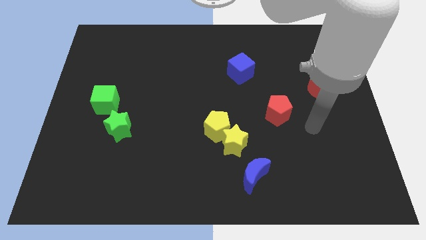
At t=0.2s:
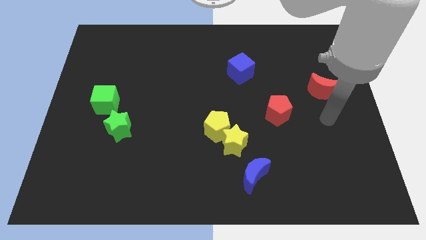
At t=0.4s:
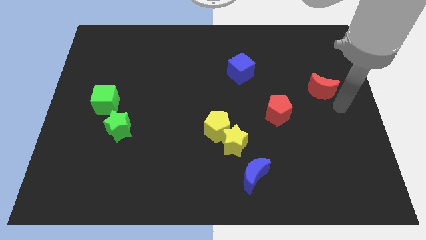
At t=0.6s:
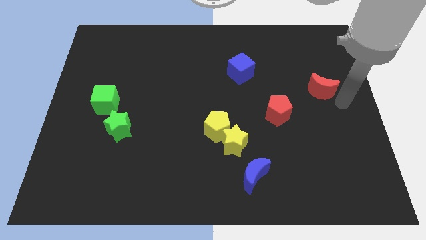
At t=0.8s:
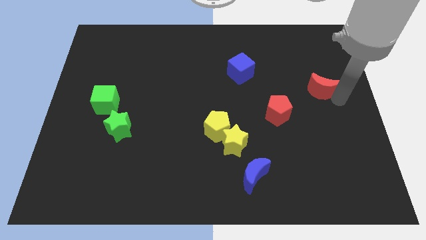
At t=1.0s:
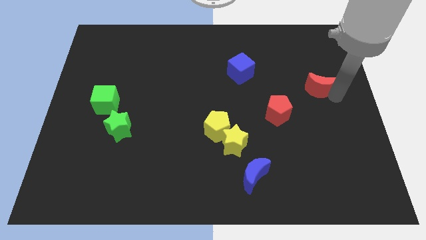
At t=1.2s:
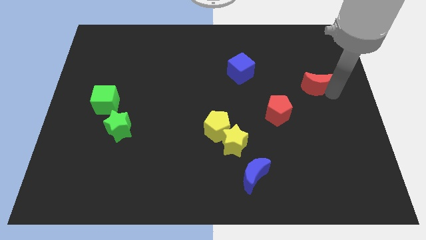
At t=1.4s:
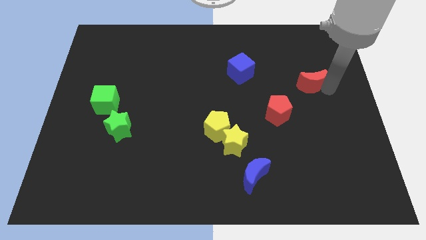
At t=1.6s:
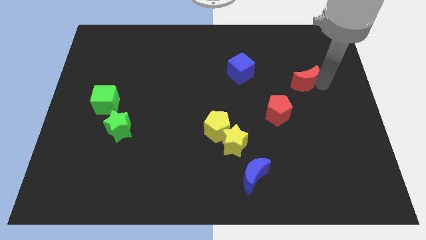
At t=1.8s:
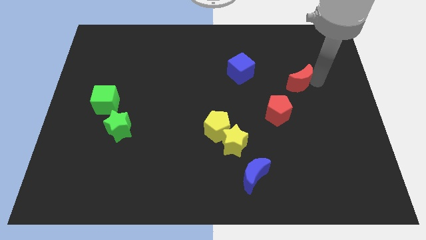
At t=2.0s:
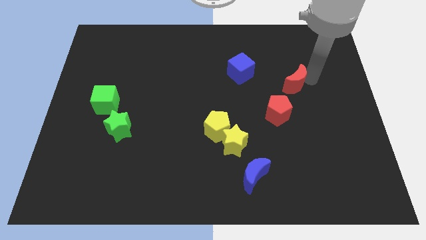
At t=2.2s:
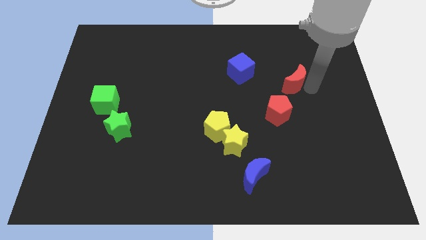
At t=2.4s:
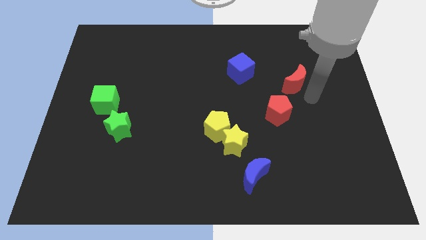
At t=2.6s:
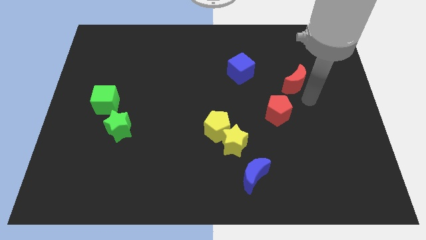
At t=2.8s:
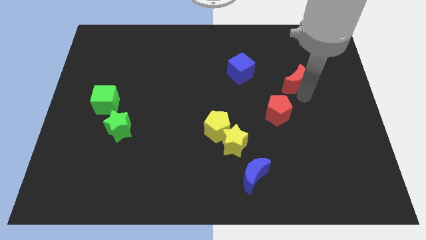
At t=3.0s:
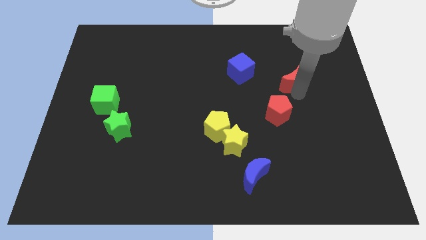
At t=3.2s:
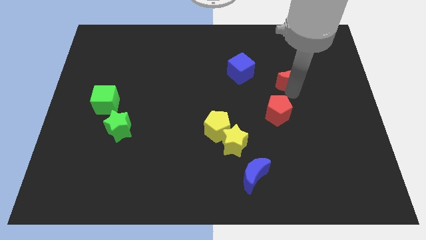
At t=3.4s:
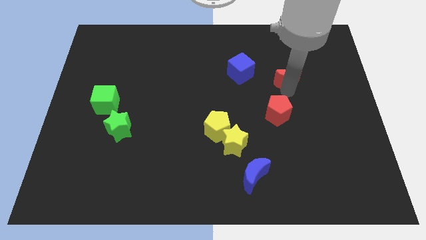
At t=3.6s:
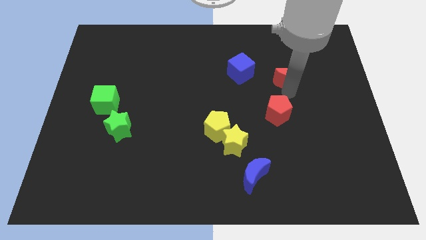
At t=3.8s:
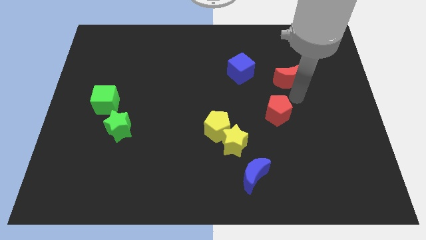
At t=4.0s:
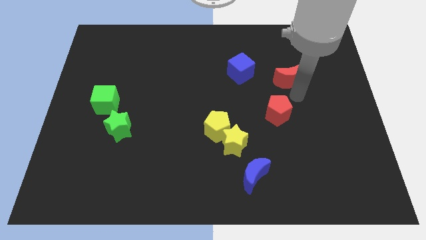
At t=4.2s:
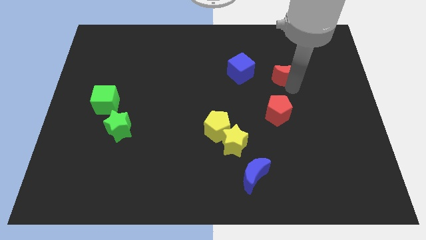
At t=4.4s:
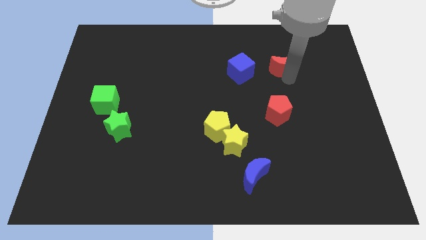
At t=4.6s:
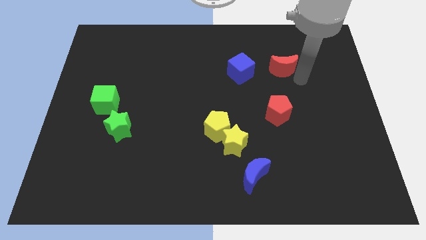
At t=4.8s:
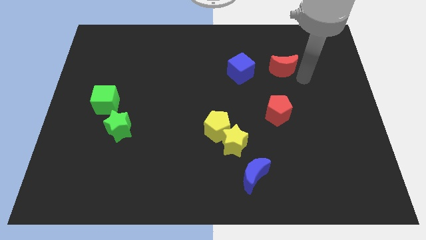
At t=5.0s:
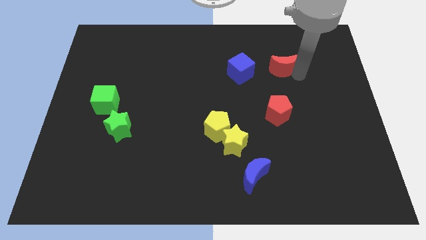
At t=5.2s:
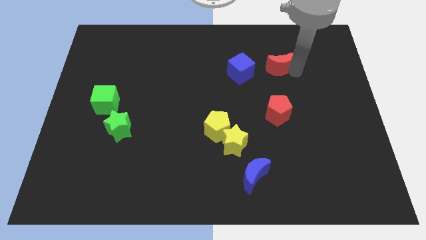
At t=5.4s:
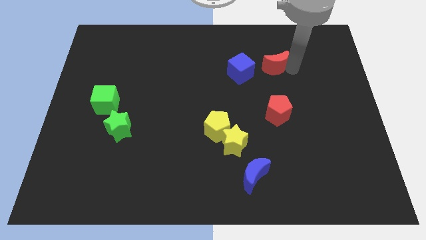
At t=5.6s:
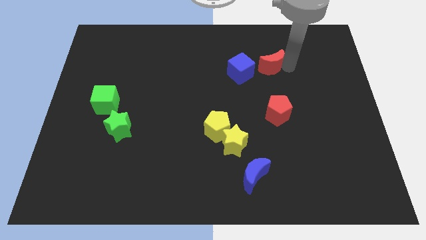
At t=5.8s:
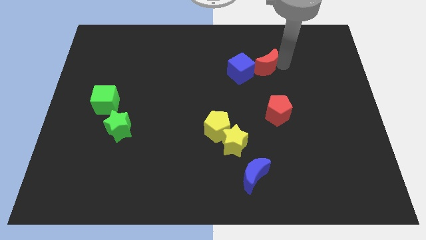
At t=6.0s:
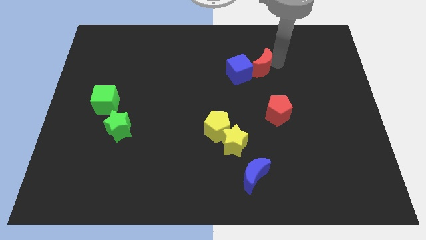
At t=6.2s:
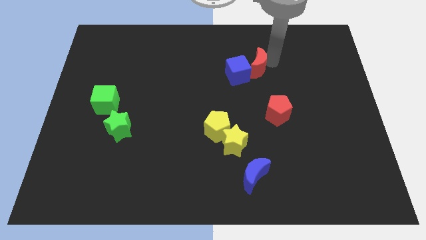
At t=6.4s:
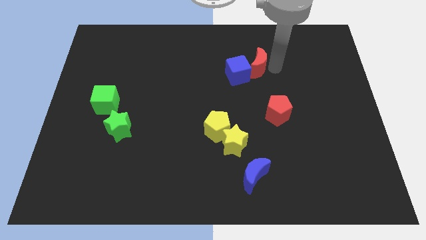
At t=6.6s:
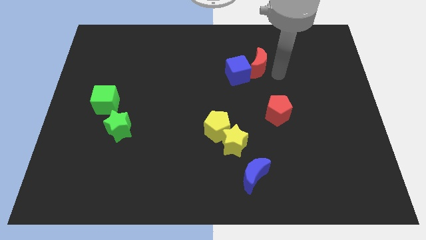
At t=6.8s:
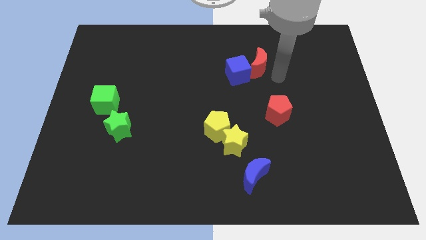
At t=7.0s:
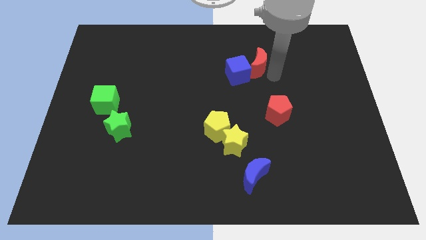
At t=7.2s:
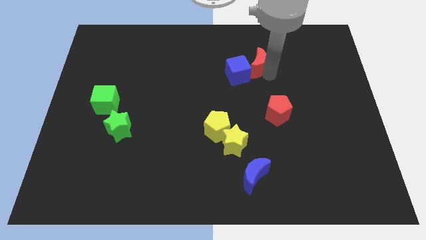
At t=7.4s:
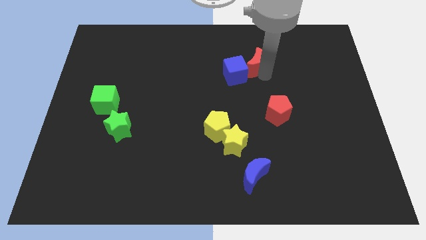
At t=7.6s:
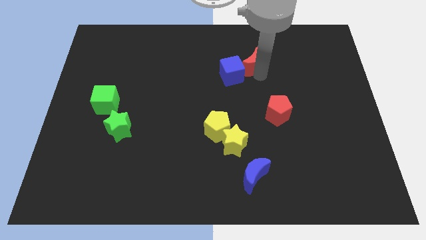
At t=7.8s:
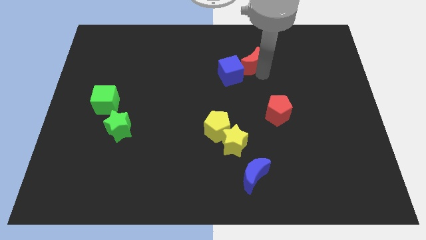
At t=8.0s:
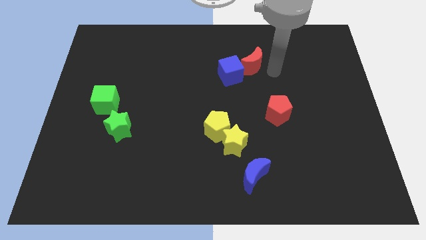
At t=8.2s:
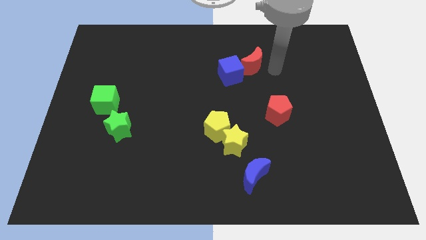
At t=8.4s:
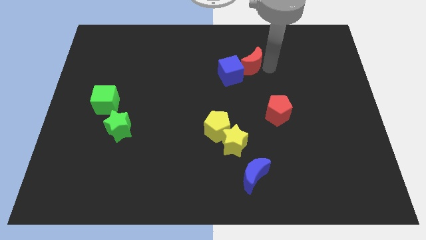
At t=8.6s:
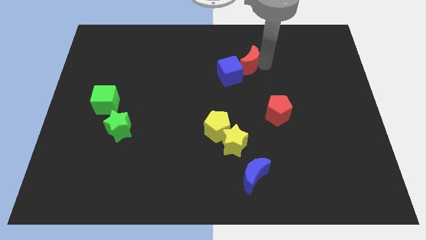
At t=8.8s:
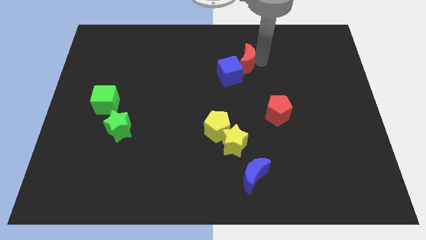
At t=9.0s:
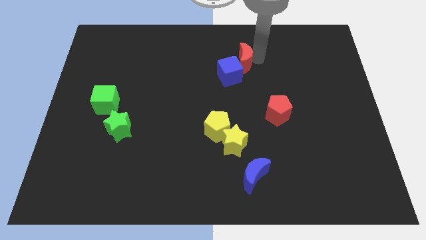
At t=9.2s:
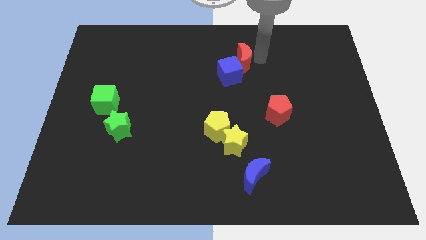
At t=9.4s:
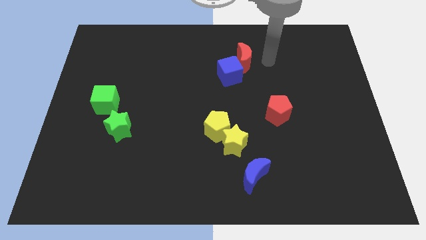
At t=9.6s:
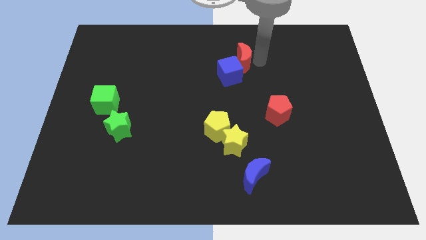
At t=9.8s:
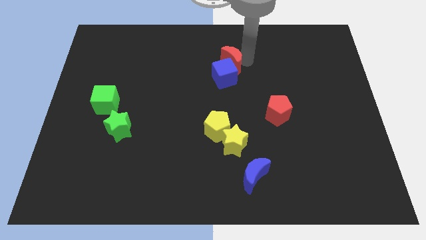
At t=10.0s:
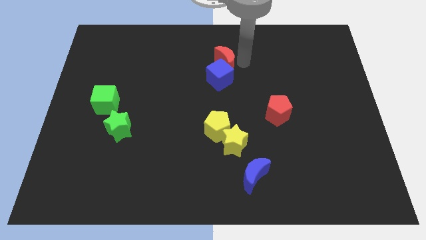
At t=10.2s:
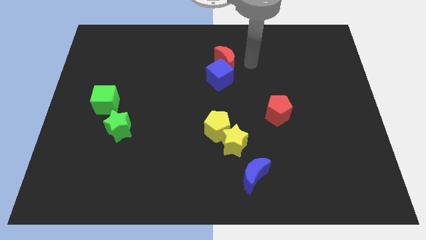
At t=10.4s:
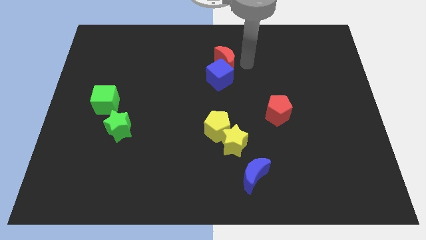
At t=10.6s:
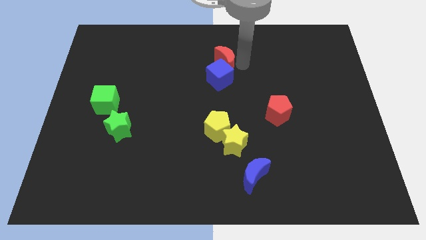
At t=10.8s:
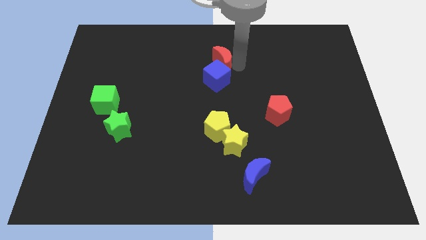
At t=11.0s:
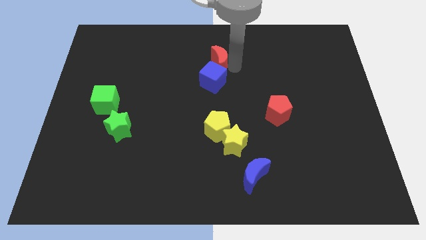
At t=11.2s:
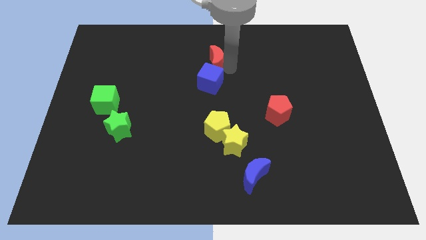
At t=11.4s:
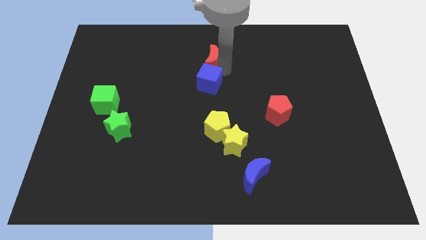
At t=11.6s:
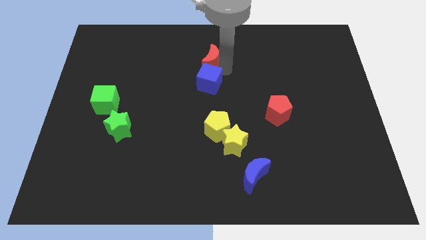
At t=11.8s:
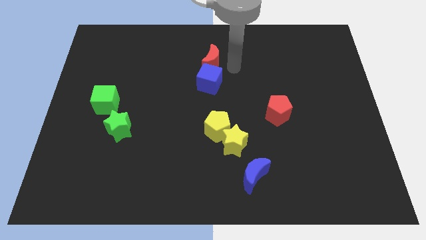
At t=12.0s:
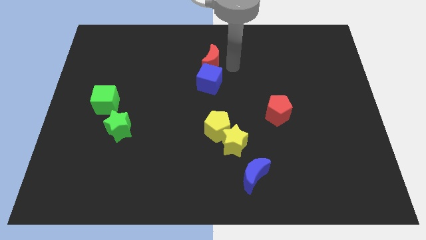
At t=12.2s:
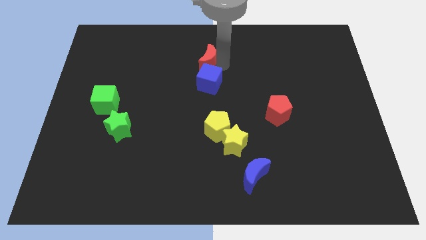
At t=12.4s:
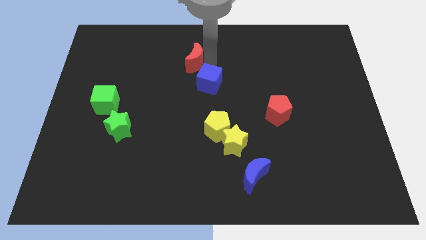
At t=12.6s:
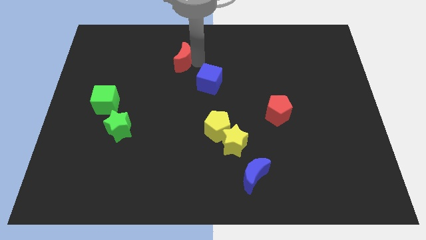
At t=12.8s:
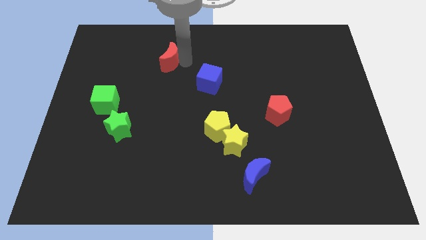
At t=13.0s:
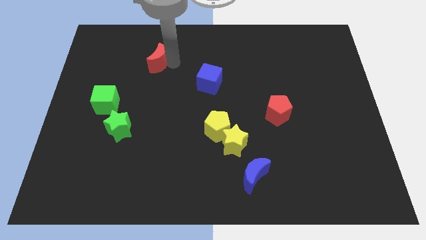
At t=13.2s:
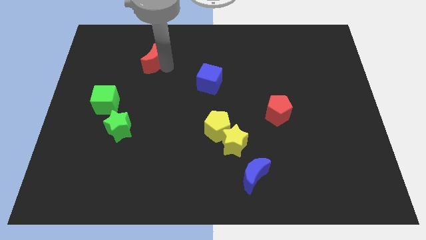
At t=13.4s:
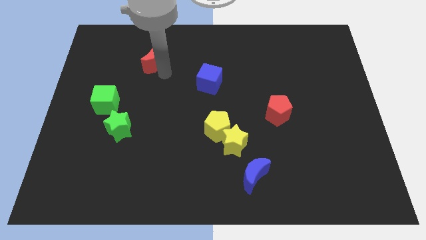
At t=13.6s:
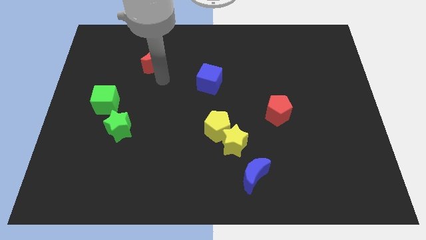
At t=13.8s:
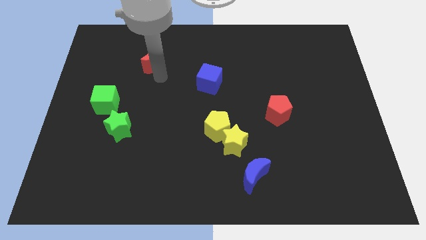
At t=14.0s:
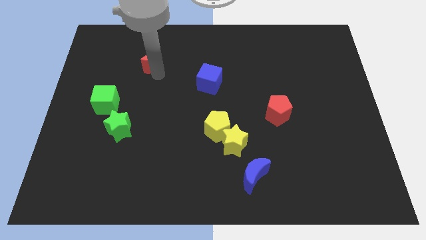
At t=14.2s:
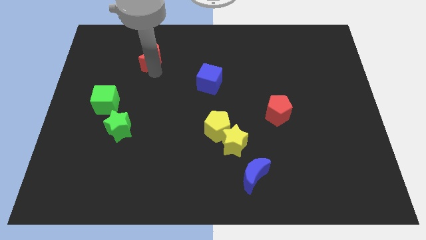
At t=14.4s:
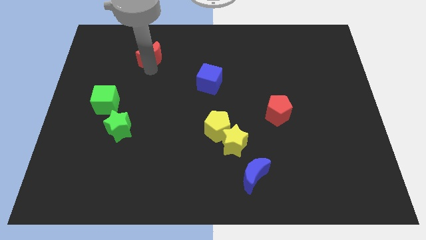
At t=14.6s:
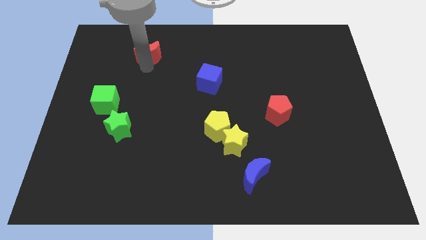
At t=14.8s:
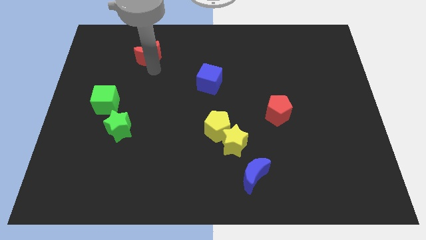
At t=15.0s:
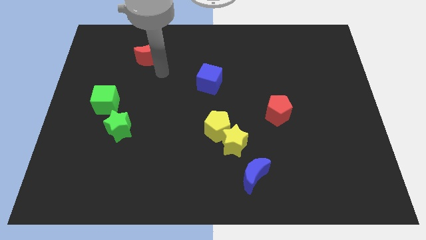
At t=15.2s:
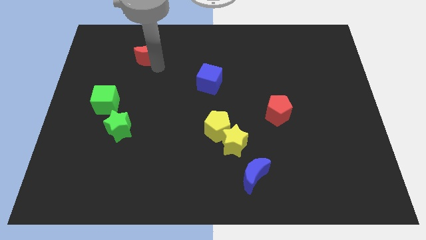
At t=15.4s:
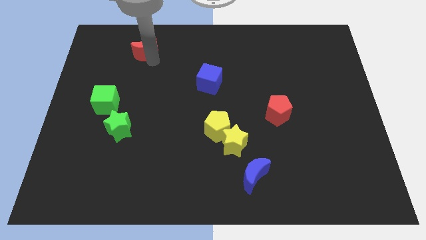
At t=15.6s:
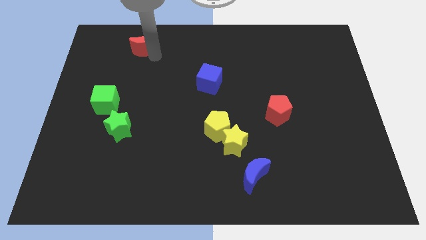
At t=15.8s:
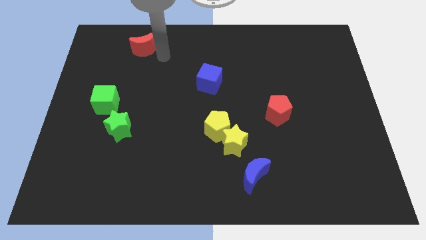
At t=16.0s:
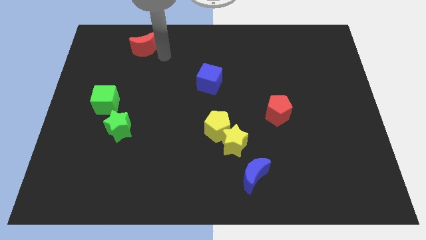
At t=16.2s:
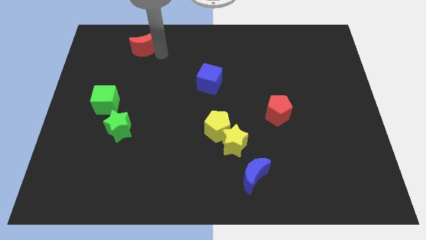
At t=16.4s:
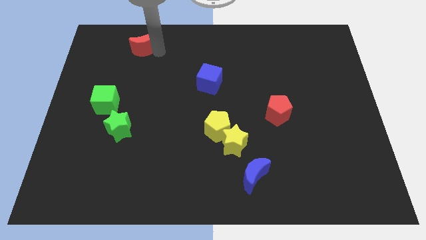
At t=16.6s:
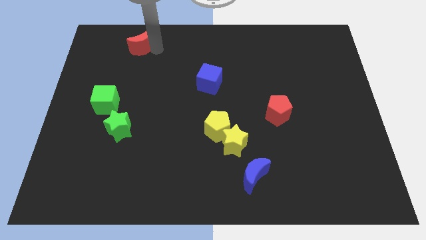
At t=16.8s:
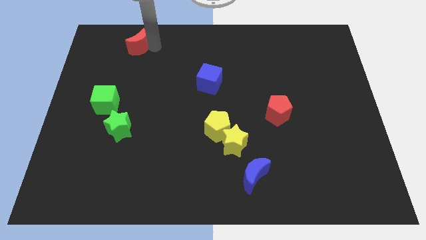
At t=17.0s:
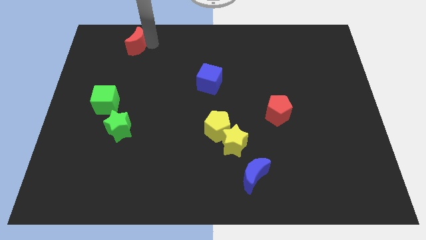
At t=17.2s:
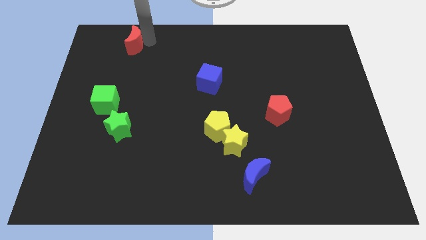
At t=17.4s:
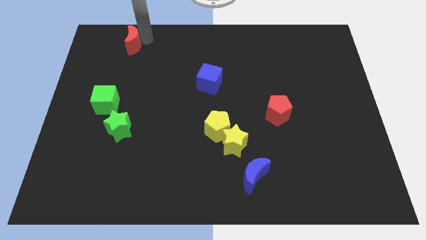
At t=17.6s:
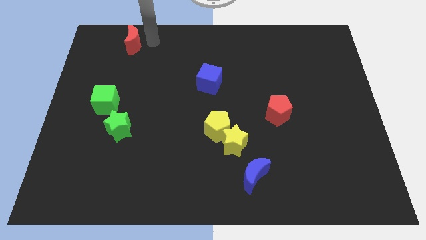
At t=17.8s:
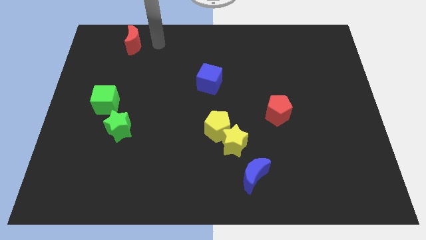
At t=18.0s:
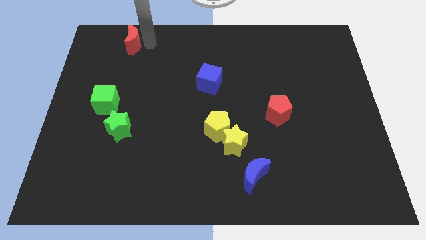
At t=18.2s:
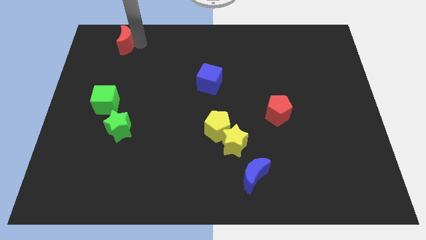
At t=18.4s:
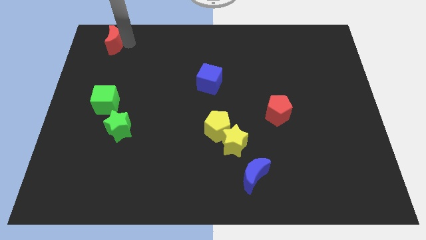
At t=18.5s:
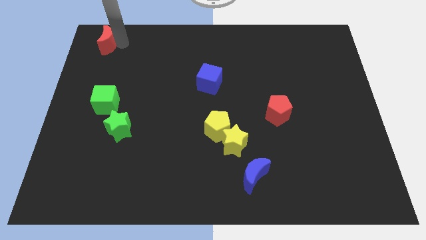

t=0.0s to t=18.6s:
put the red moon to the top left of the board
